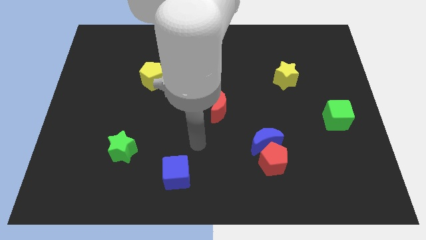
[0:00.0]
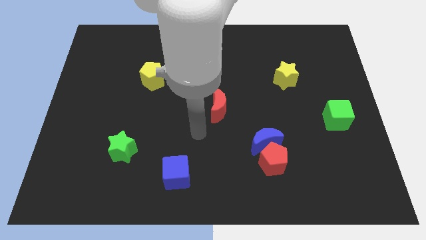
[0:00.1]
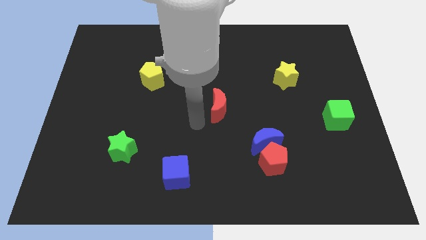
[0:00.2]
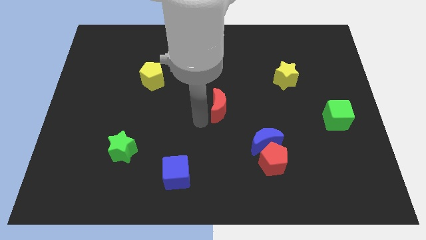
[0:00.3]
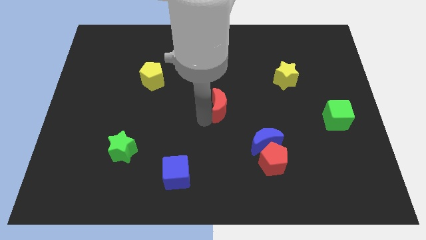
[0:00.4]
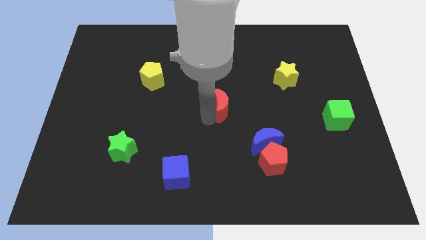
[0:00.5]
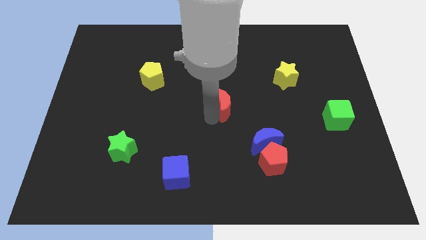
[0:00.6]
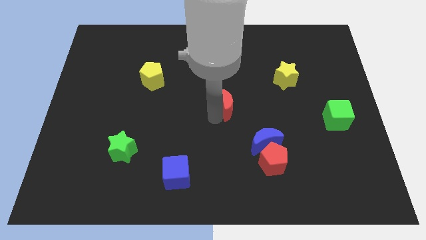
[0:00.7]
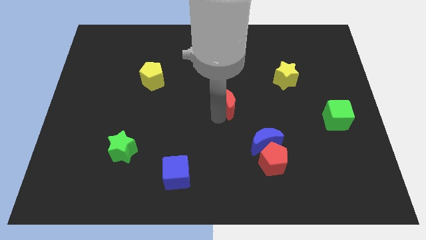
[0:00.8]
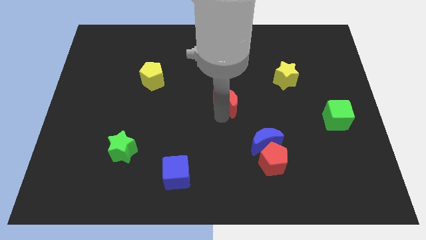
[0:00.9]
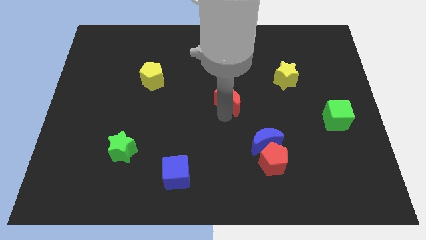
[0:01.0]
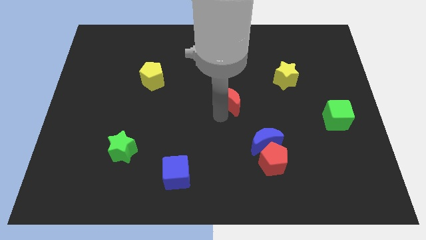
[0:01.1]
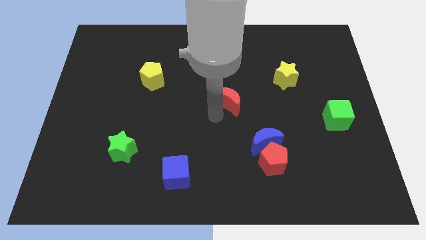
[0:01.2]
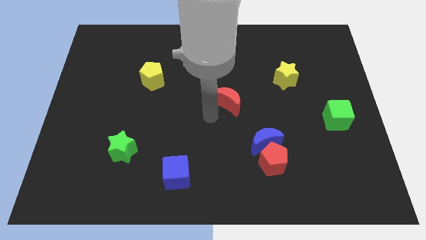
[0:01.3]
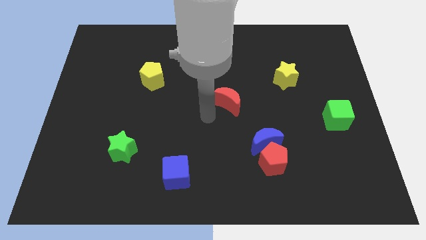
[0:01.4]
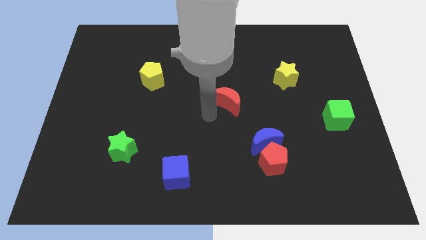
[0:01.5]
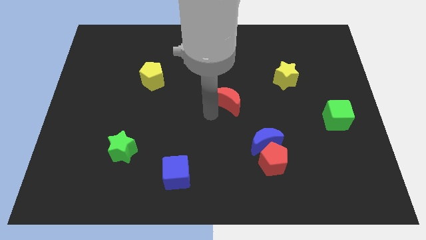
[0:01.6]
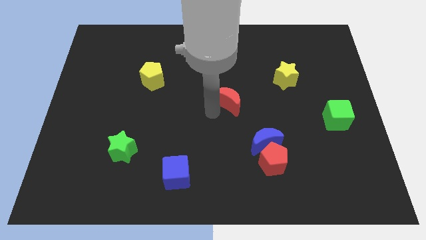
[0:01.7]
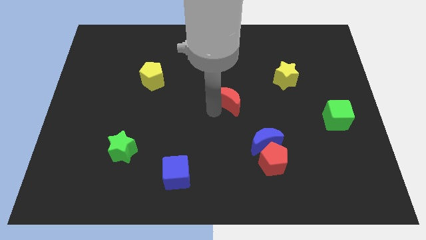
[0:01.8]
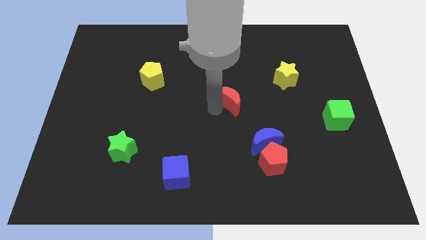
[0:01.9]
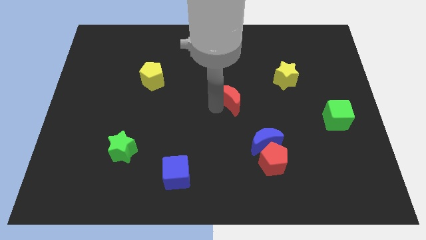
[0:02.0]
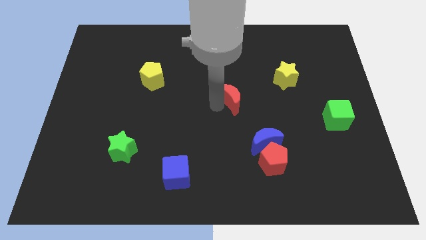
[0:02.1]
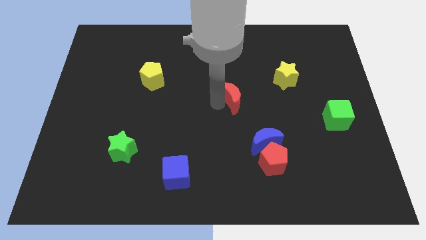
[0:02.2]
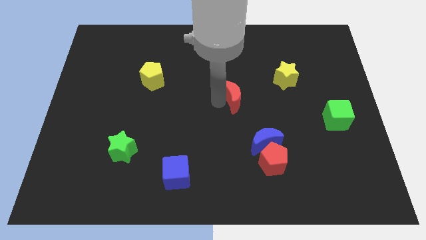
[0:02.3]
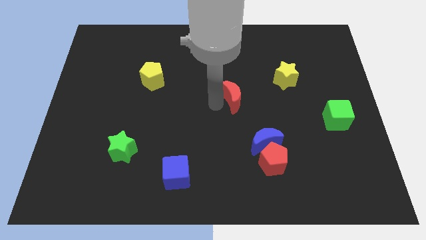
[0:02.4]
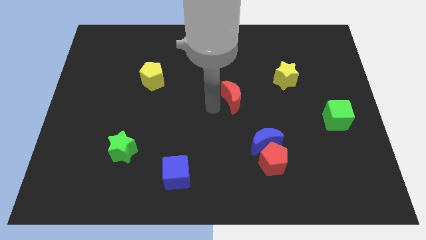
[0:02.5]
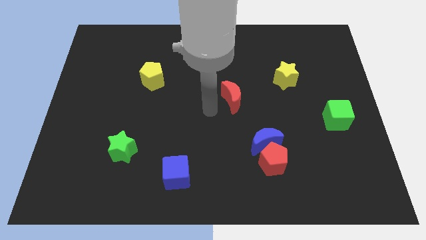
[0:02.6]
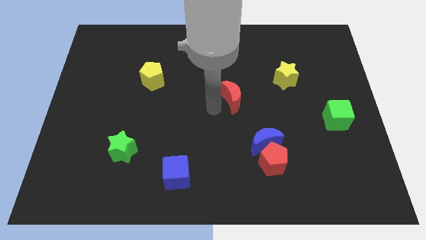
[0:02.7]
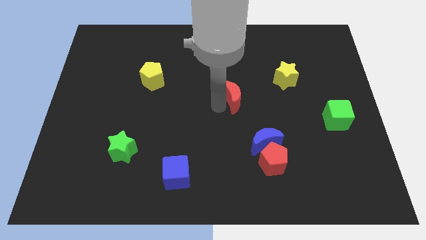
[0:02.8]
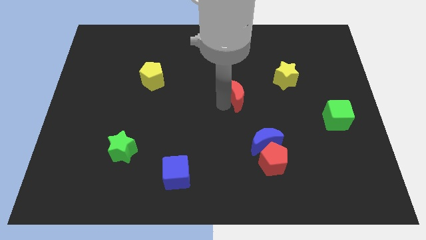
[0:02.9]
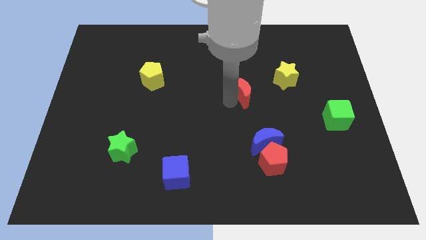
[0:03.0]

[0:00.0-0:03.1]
slide the red moon a little up and to the right diagonally

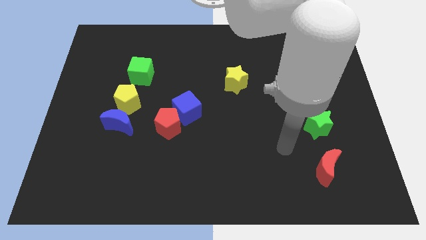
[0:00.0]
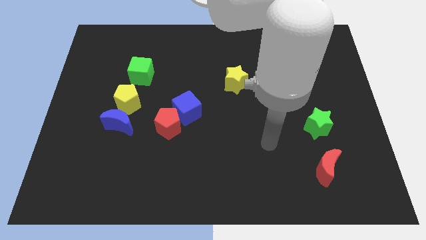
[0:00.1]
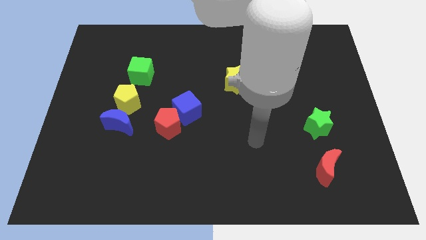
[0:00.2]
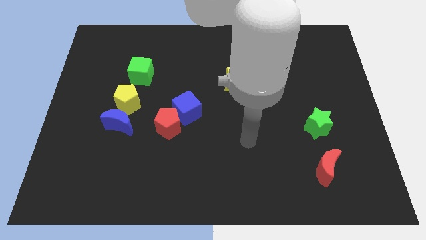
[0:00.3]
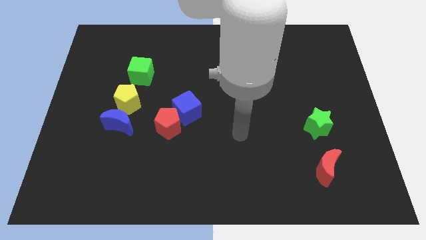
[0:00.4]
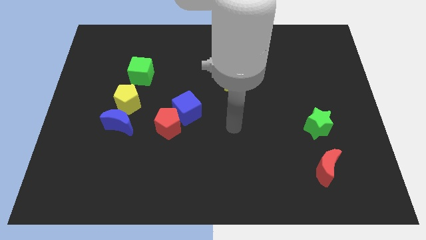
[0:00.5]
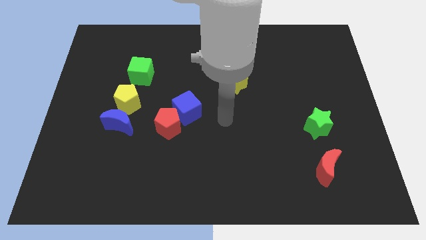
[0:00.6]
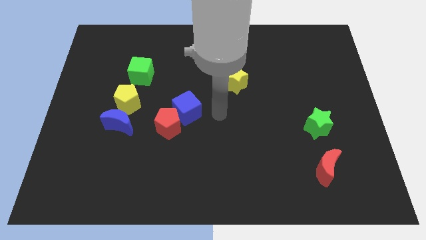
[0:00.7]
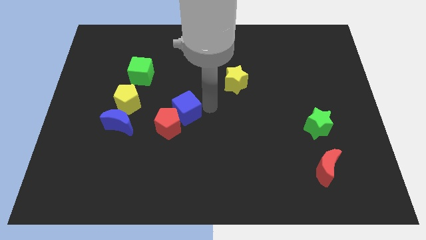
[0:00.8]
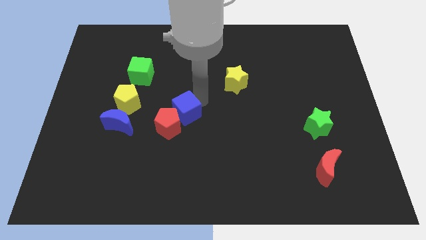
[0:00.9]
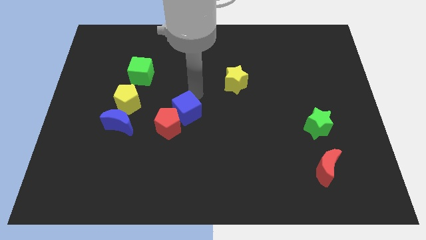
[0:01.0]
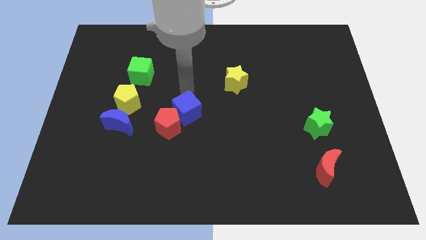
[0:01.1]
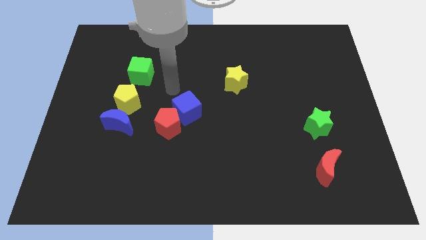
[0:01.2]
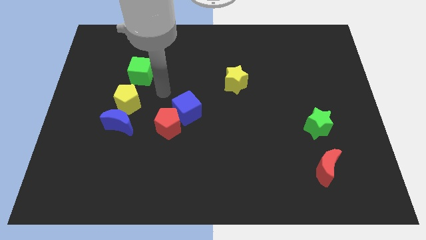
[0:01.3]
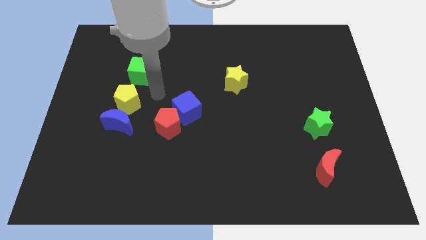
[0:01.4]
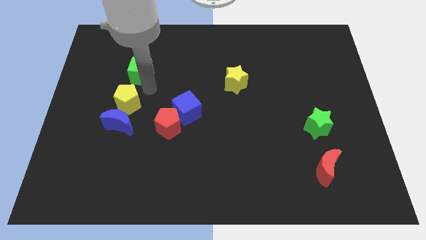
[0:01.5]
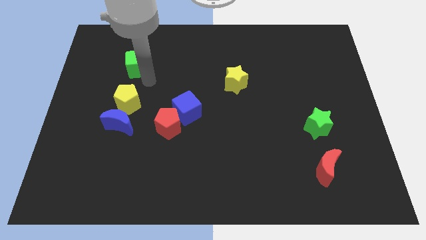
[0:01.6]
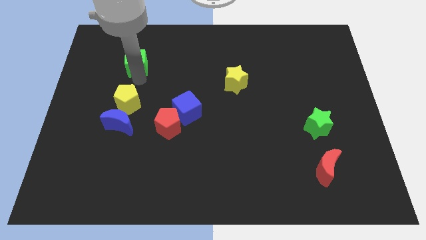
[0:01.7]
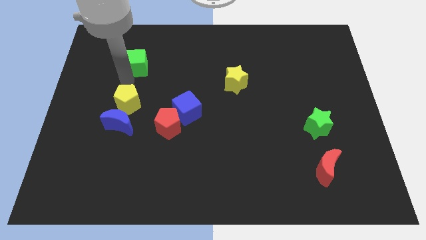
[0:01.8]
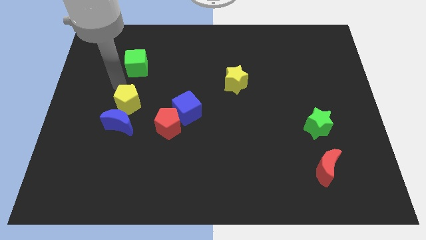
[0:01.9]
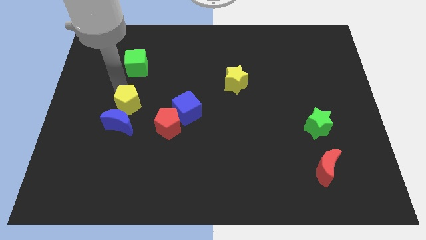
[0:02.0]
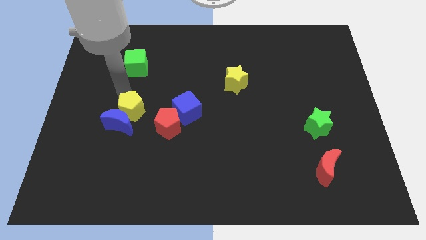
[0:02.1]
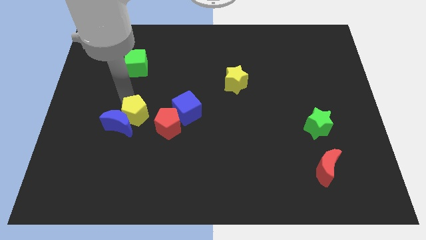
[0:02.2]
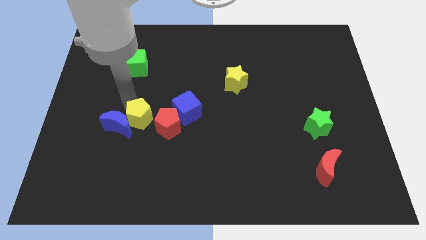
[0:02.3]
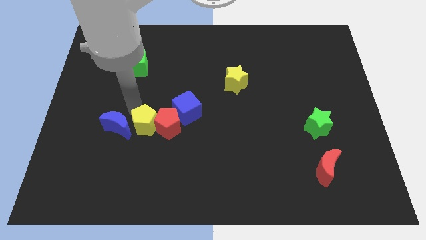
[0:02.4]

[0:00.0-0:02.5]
slightly push the yellow pentagon downwards and then to the right

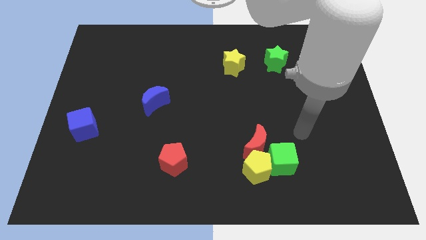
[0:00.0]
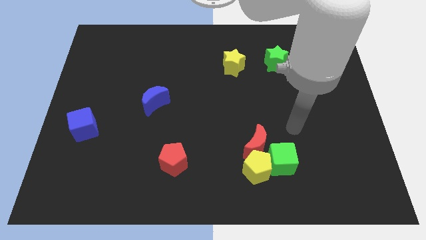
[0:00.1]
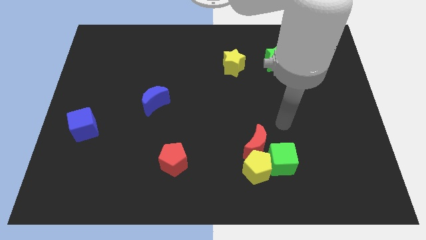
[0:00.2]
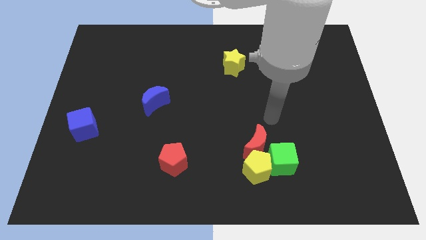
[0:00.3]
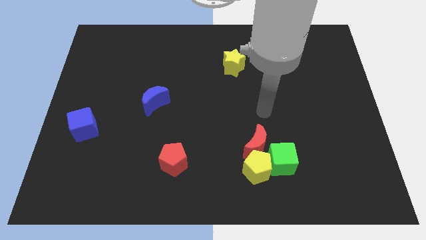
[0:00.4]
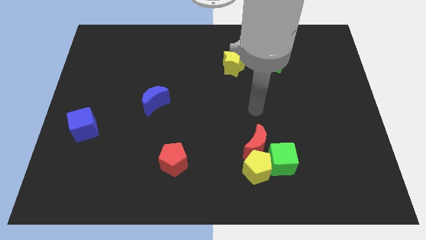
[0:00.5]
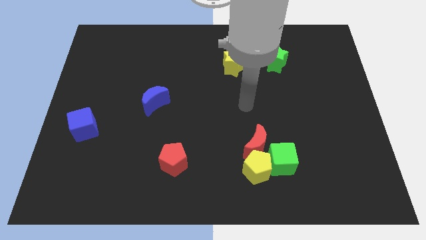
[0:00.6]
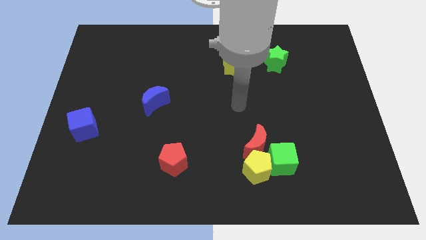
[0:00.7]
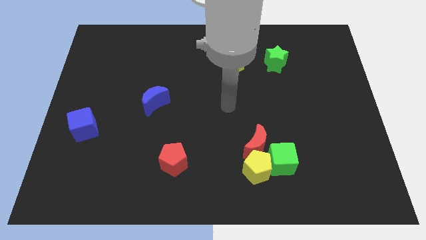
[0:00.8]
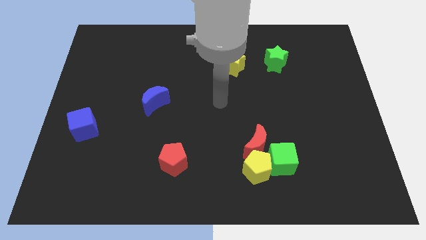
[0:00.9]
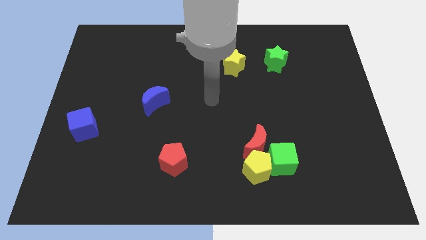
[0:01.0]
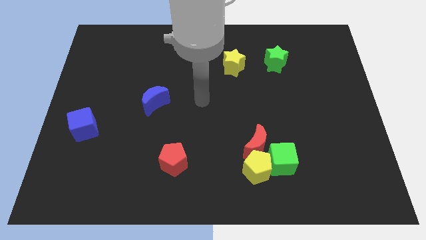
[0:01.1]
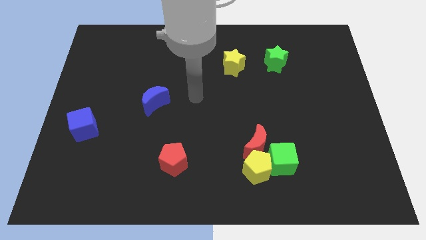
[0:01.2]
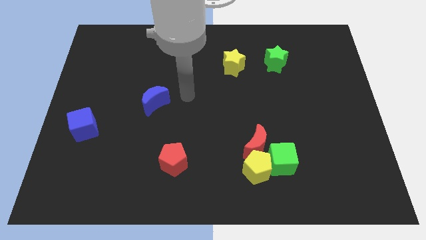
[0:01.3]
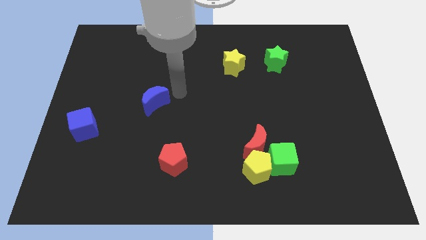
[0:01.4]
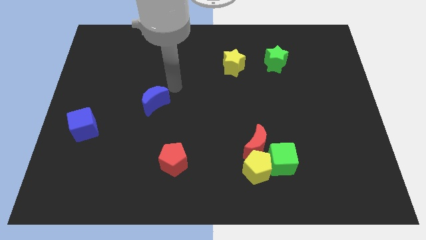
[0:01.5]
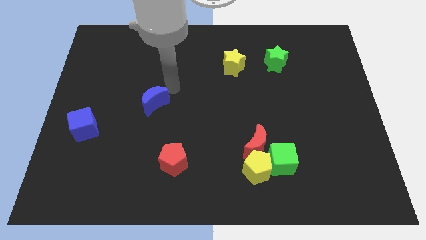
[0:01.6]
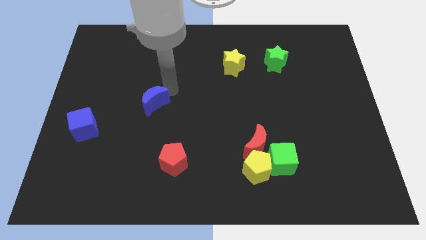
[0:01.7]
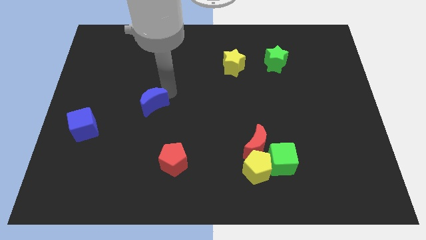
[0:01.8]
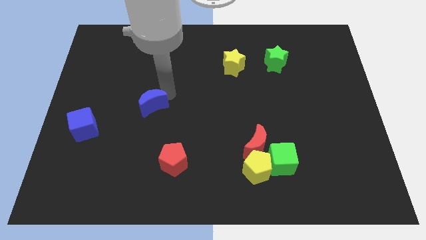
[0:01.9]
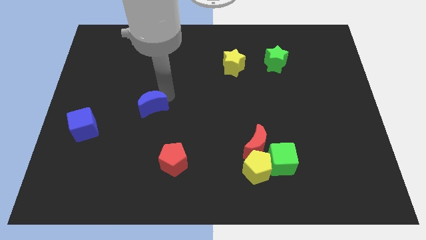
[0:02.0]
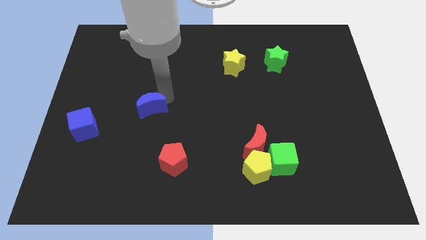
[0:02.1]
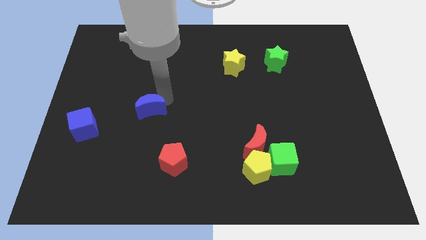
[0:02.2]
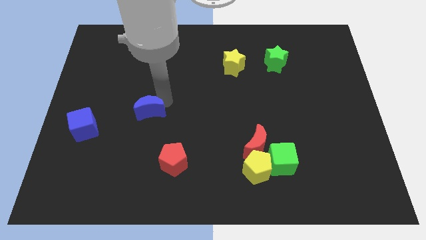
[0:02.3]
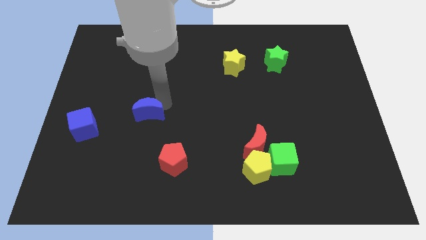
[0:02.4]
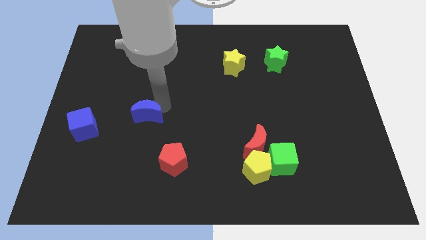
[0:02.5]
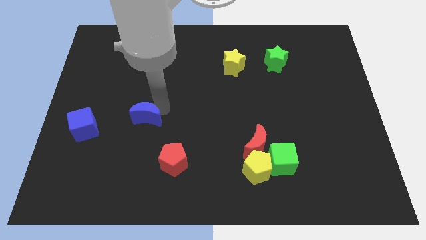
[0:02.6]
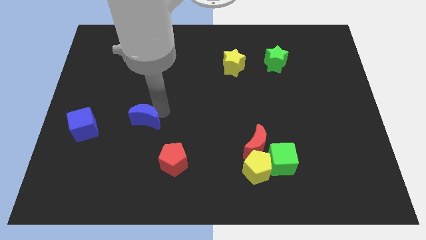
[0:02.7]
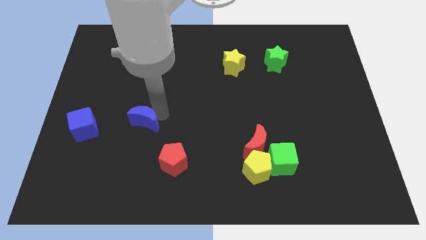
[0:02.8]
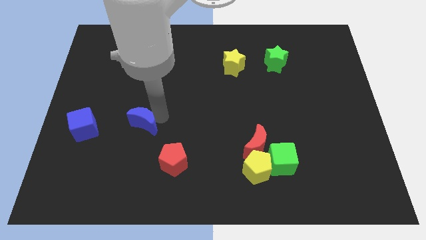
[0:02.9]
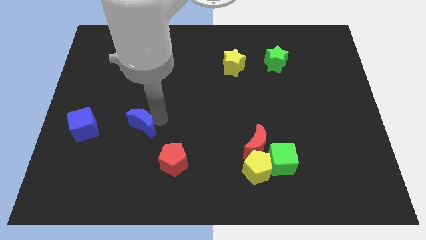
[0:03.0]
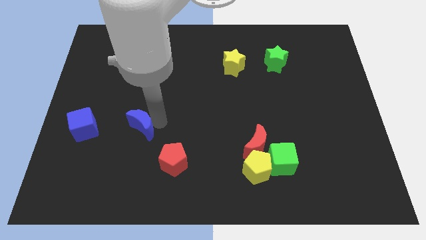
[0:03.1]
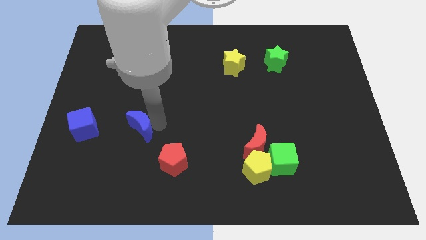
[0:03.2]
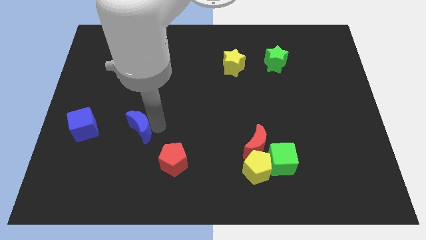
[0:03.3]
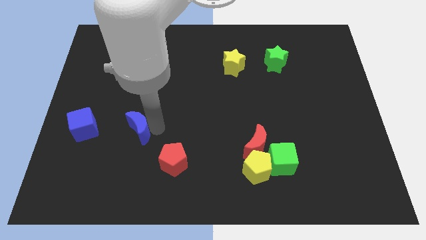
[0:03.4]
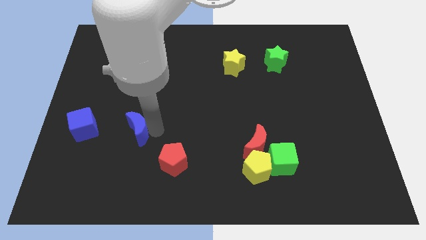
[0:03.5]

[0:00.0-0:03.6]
slide the blue moon a little bit downwards and to the left diagonally
